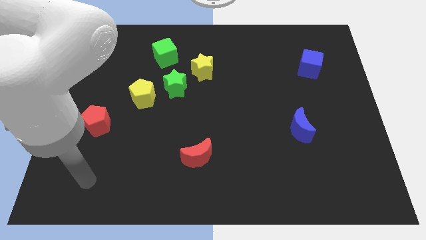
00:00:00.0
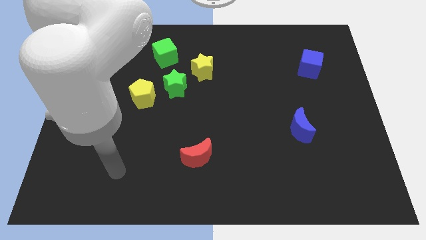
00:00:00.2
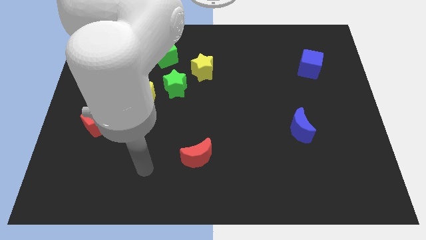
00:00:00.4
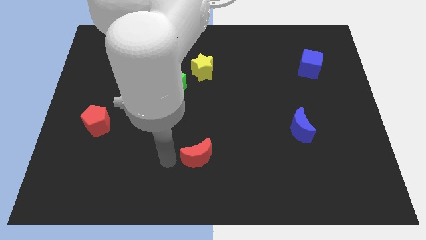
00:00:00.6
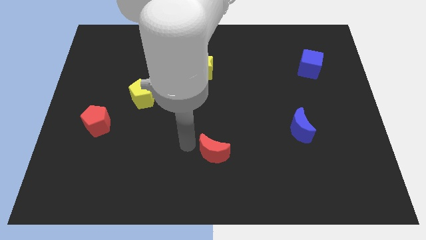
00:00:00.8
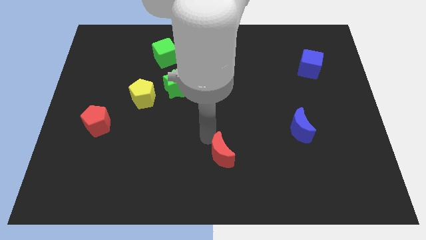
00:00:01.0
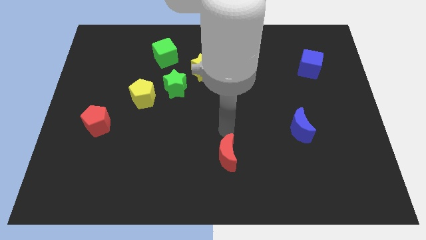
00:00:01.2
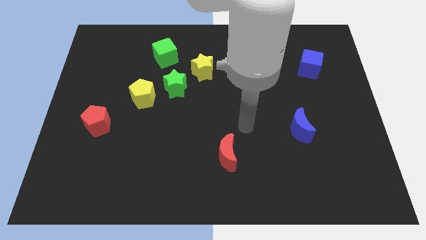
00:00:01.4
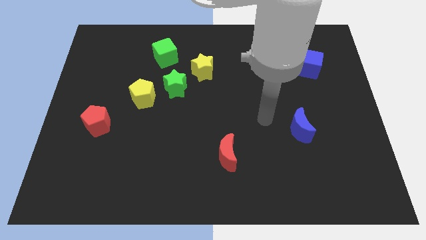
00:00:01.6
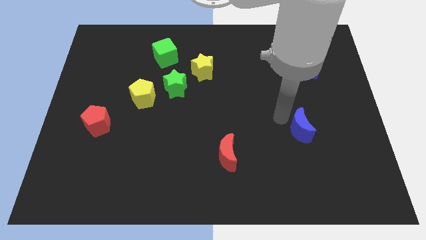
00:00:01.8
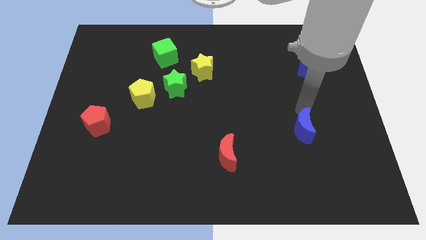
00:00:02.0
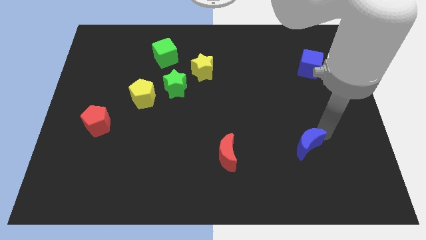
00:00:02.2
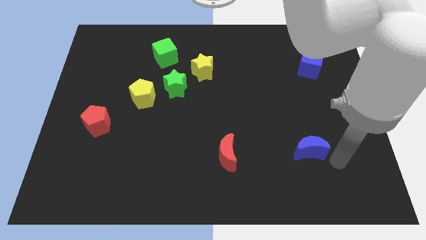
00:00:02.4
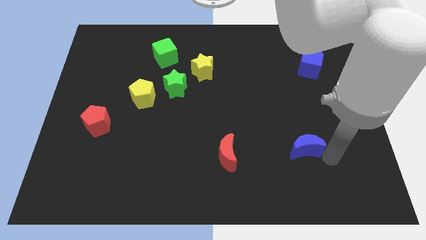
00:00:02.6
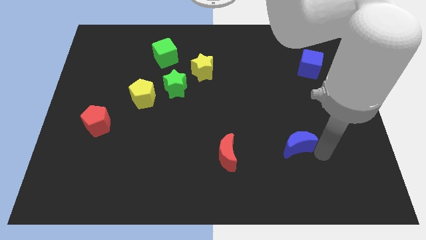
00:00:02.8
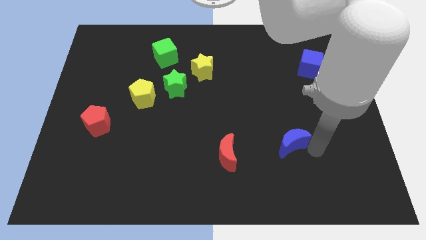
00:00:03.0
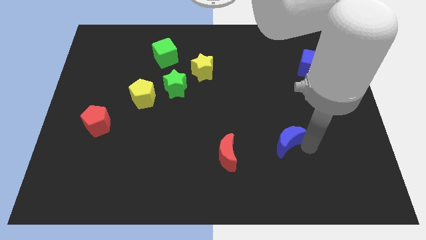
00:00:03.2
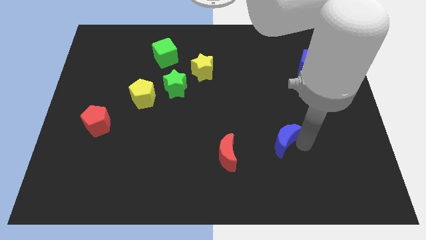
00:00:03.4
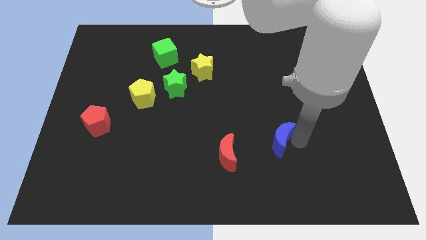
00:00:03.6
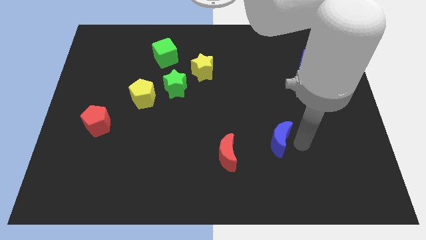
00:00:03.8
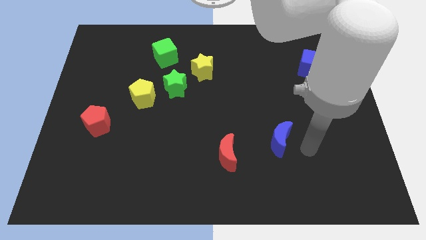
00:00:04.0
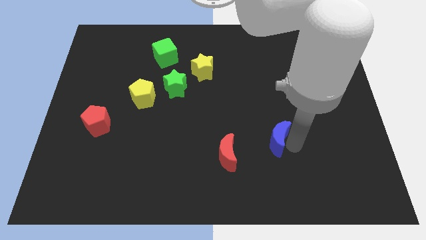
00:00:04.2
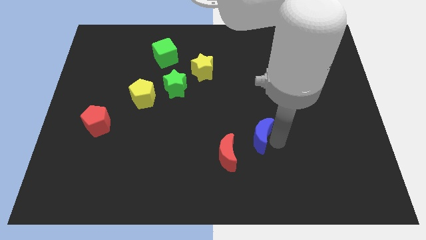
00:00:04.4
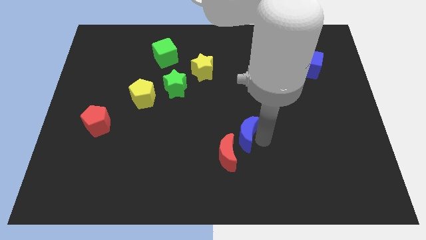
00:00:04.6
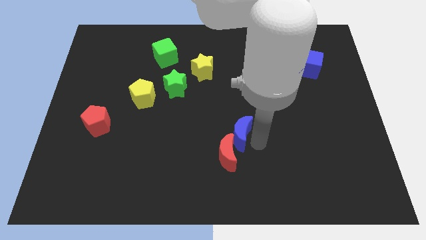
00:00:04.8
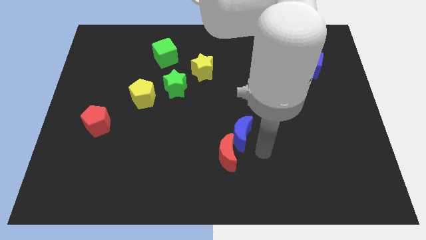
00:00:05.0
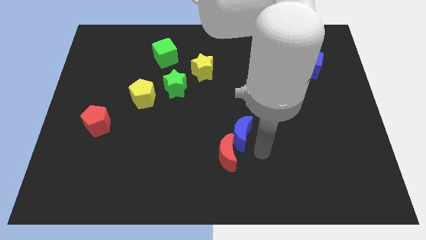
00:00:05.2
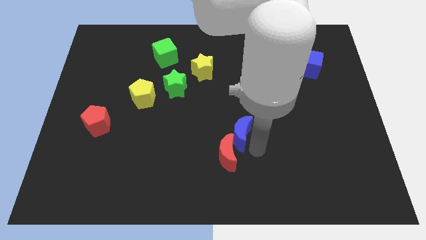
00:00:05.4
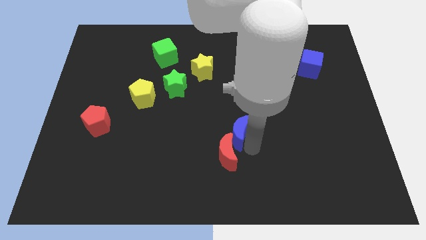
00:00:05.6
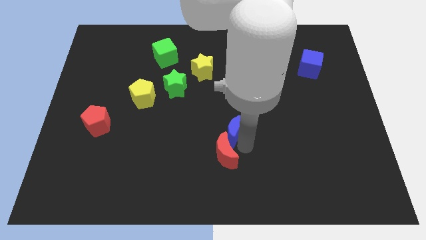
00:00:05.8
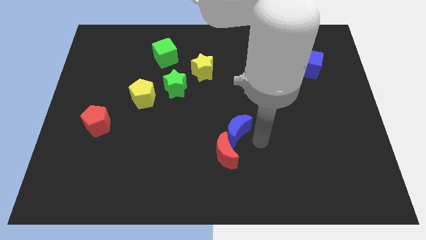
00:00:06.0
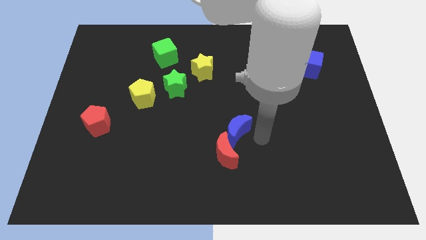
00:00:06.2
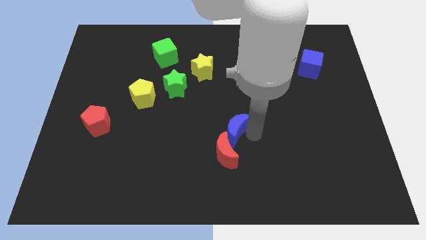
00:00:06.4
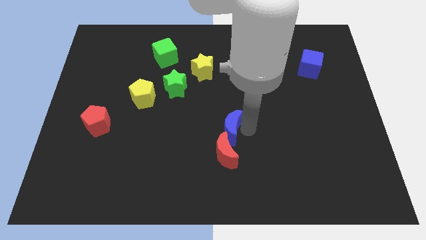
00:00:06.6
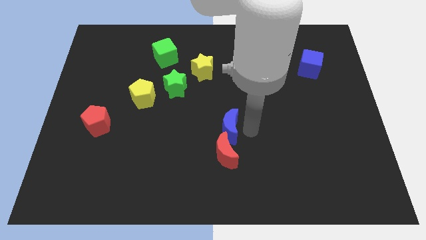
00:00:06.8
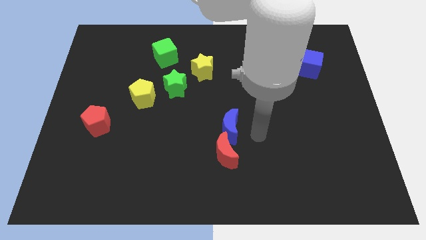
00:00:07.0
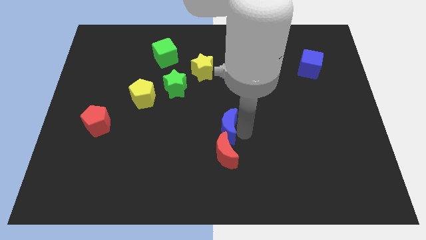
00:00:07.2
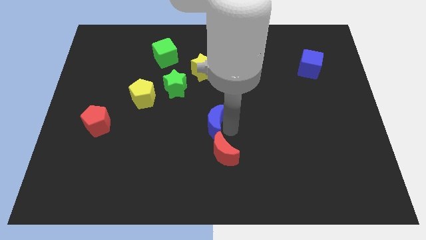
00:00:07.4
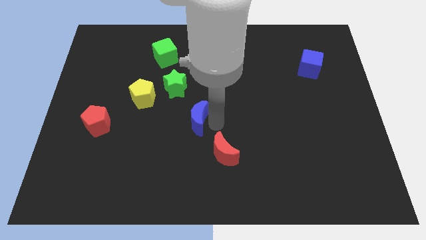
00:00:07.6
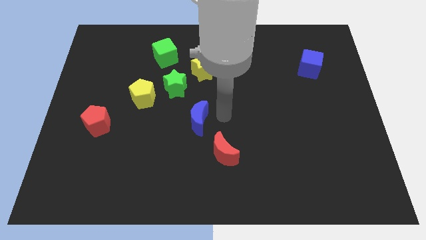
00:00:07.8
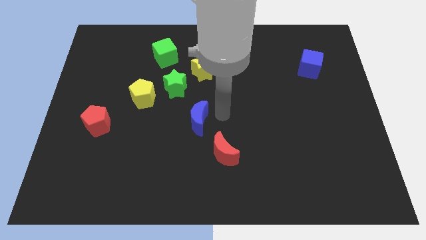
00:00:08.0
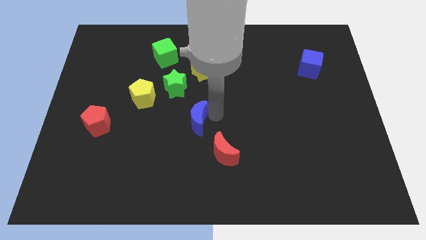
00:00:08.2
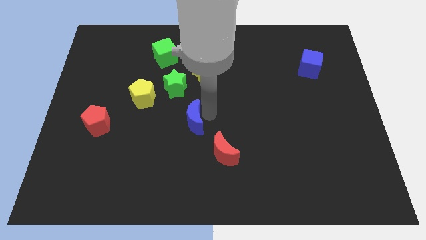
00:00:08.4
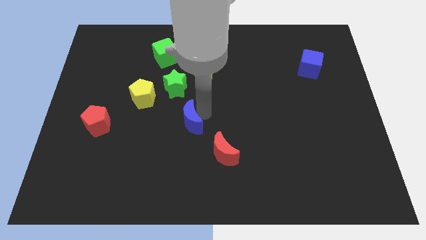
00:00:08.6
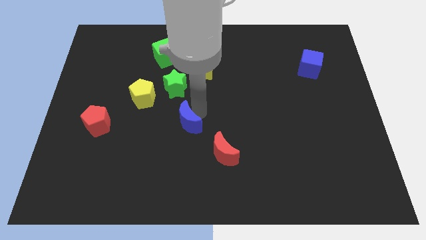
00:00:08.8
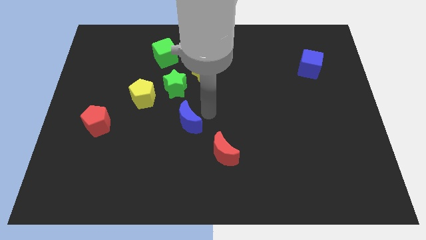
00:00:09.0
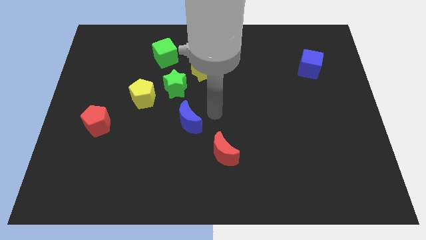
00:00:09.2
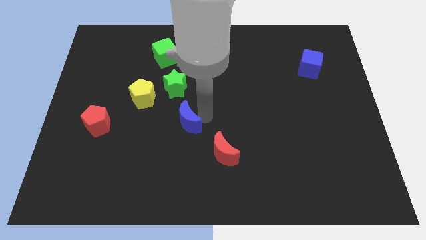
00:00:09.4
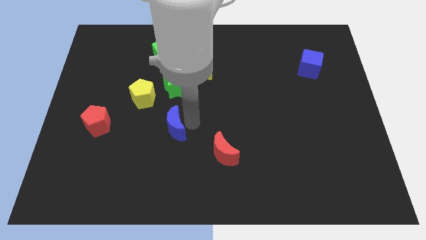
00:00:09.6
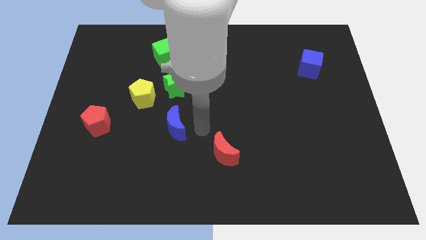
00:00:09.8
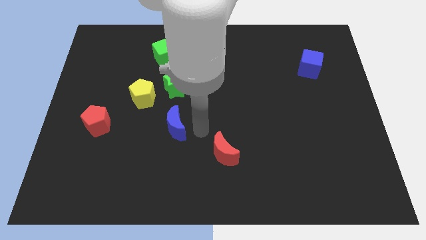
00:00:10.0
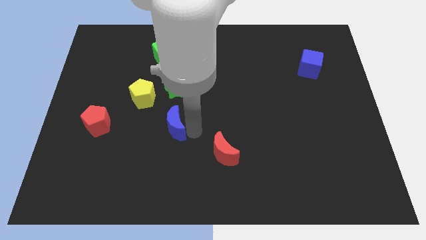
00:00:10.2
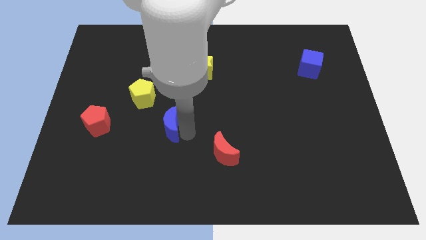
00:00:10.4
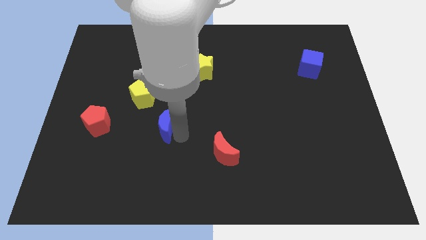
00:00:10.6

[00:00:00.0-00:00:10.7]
slide the blue moon right of the red pentagon

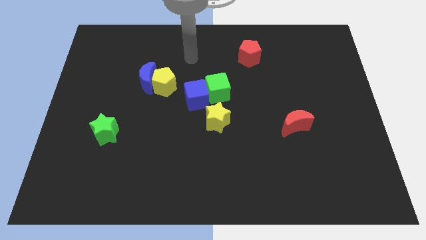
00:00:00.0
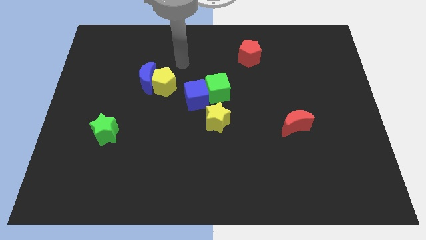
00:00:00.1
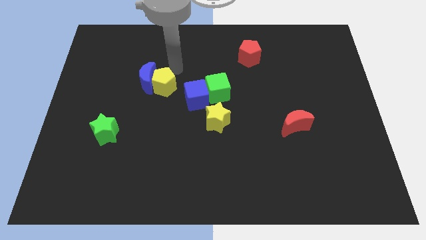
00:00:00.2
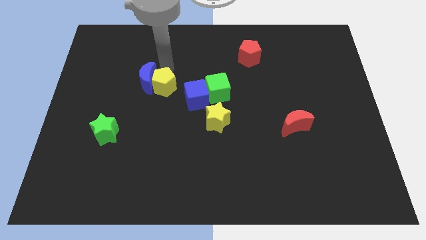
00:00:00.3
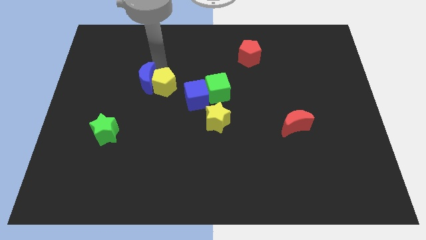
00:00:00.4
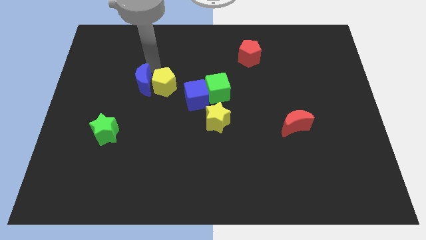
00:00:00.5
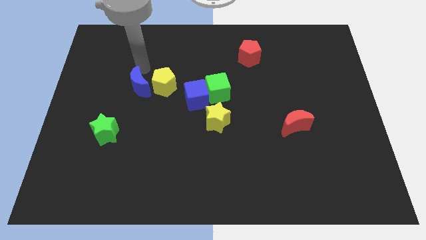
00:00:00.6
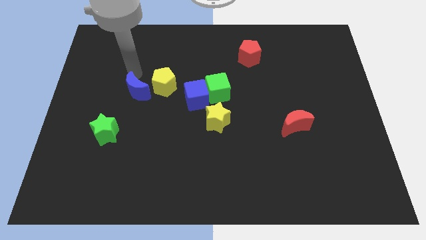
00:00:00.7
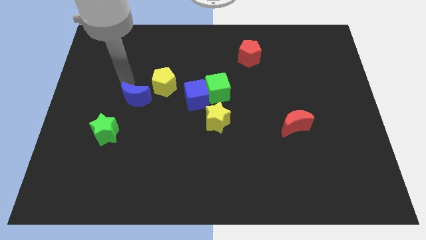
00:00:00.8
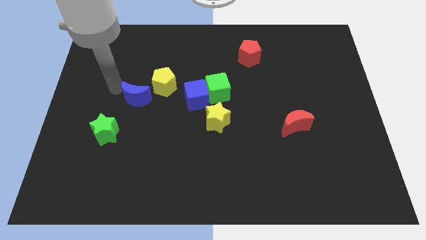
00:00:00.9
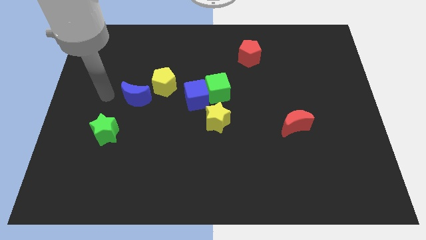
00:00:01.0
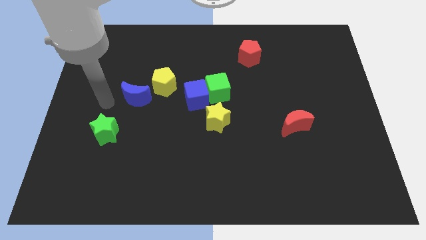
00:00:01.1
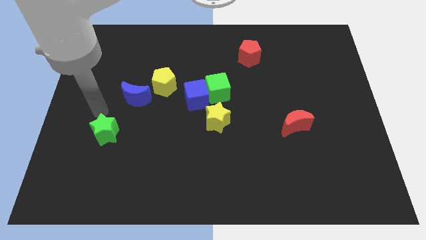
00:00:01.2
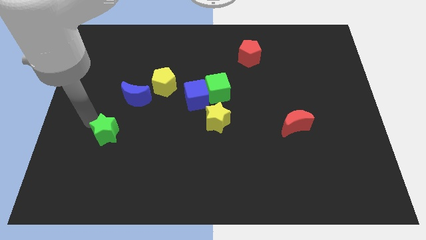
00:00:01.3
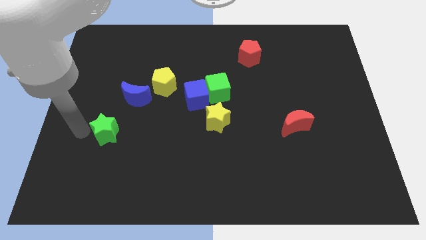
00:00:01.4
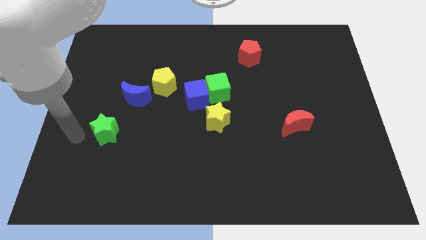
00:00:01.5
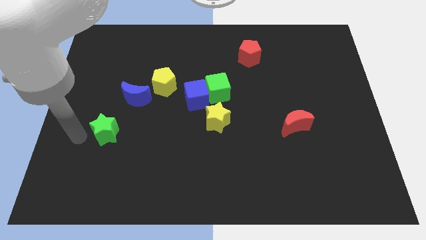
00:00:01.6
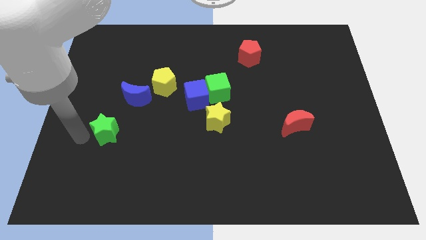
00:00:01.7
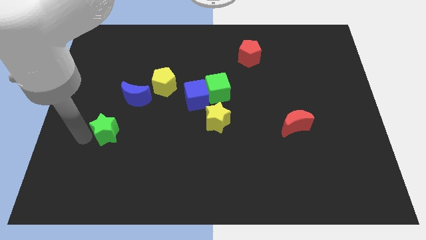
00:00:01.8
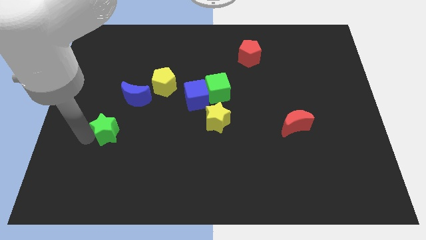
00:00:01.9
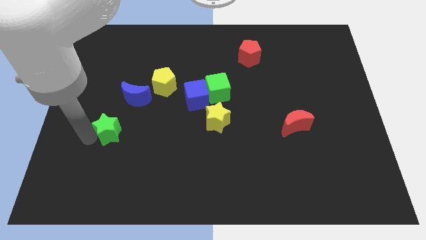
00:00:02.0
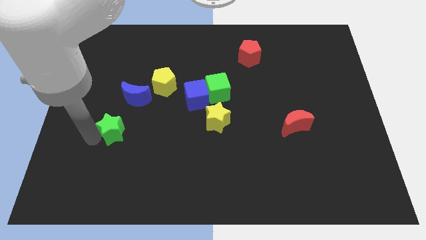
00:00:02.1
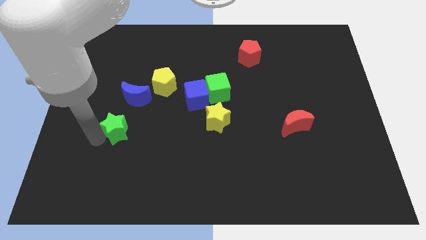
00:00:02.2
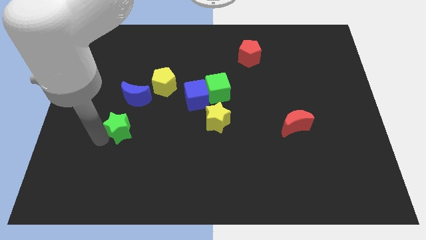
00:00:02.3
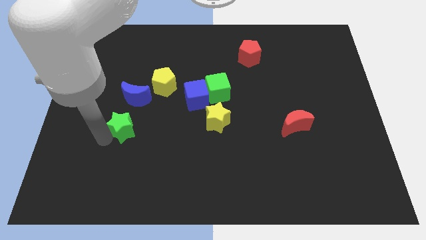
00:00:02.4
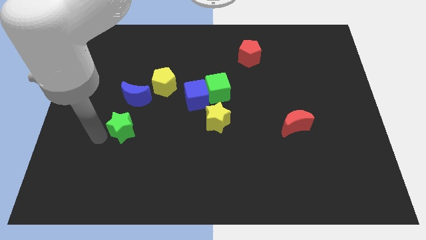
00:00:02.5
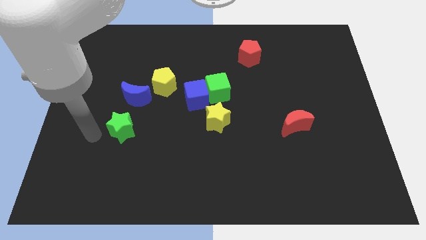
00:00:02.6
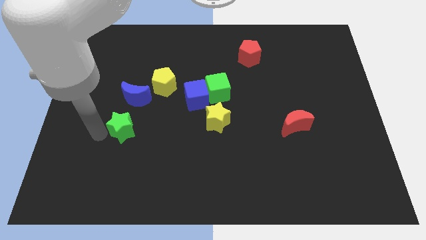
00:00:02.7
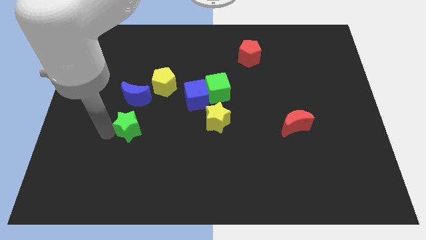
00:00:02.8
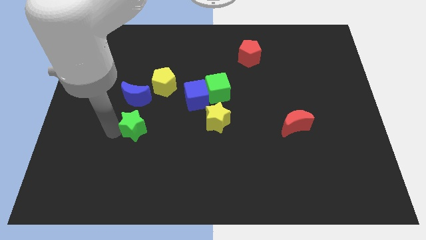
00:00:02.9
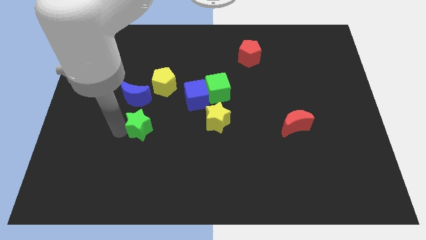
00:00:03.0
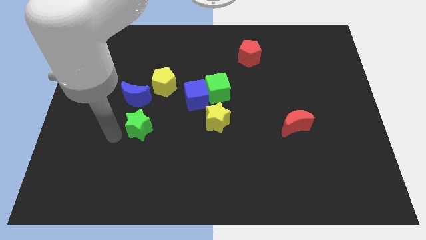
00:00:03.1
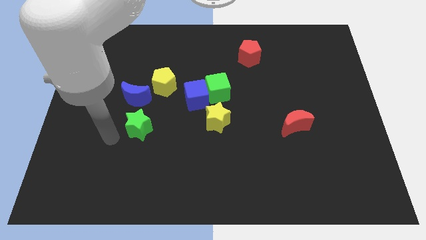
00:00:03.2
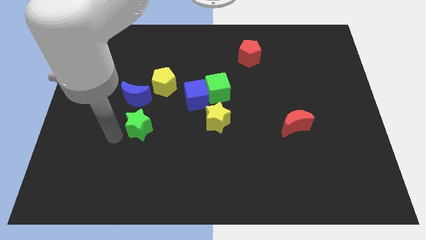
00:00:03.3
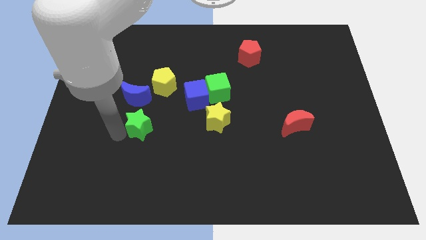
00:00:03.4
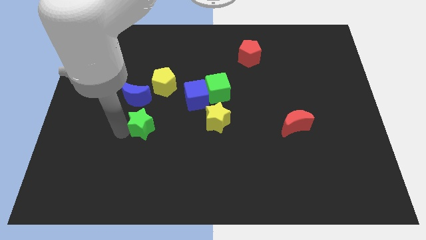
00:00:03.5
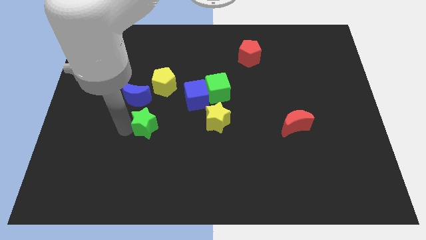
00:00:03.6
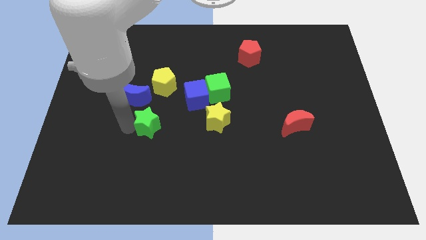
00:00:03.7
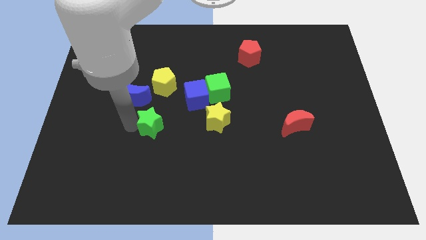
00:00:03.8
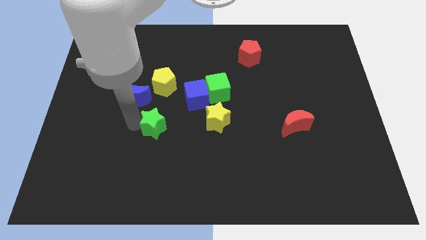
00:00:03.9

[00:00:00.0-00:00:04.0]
slide the green star diagonally down and to the left of the blue cube
